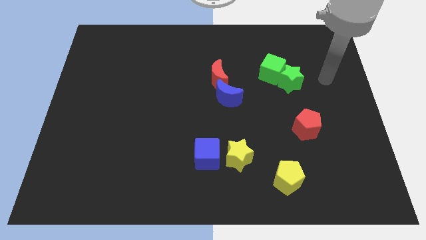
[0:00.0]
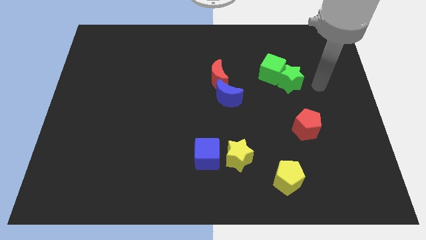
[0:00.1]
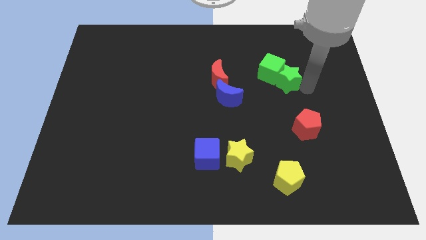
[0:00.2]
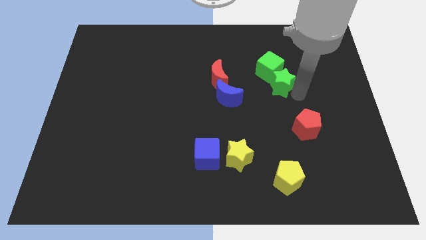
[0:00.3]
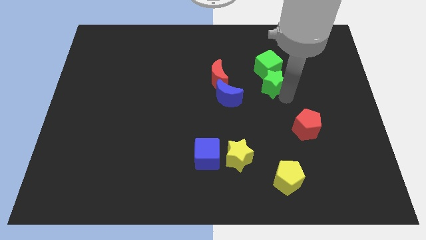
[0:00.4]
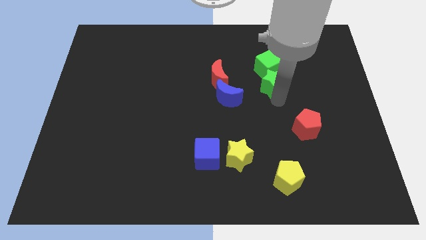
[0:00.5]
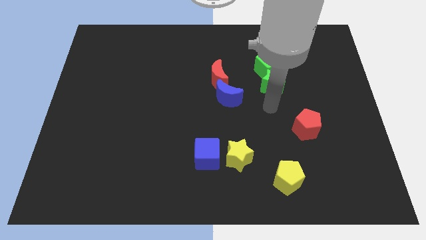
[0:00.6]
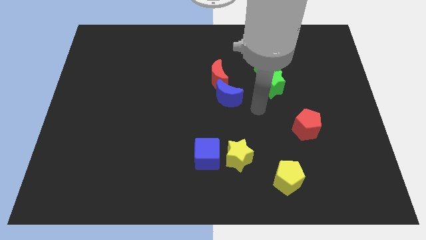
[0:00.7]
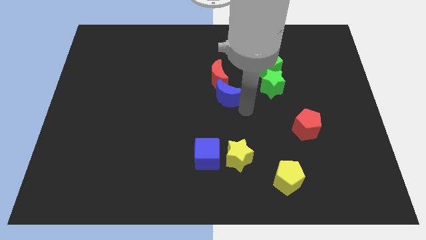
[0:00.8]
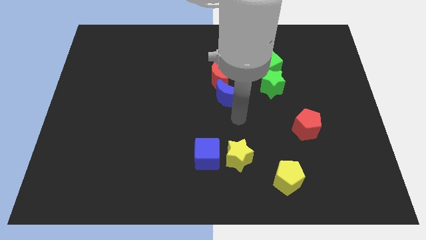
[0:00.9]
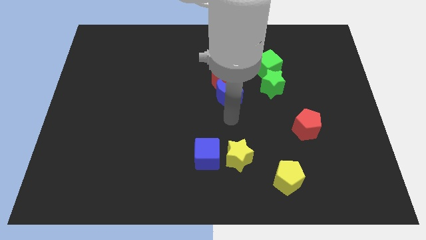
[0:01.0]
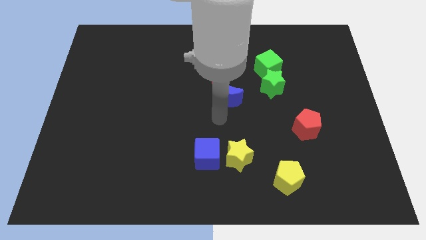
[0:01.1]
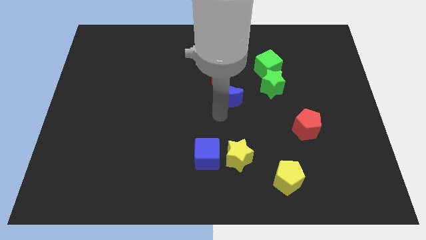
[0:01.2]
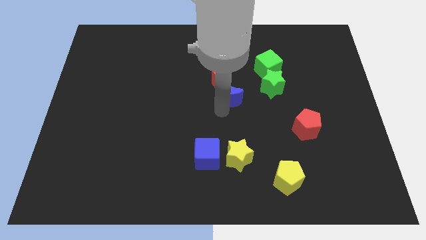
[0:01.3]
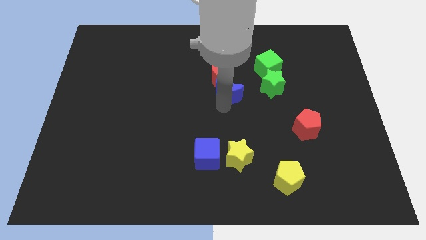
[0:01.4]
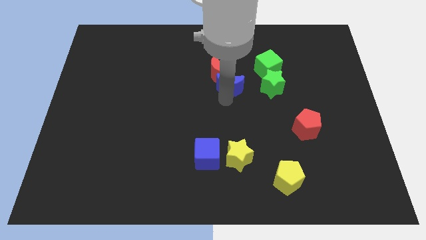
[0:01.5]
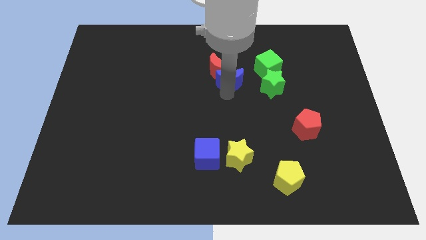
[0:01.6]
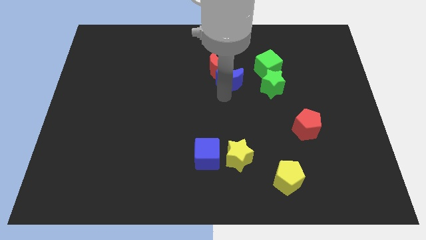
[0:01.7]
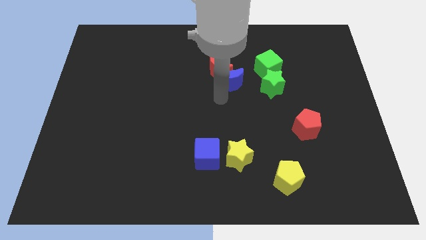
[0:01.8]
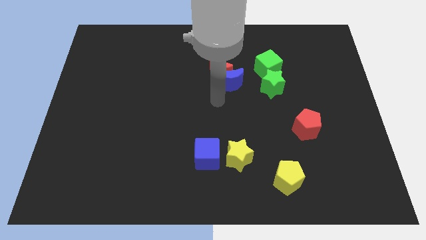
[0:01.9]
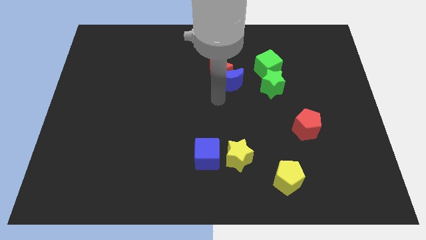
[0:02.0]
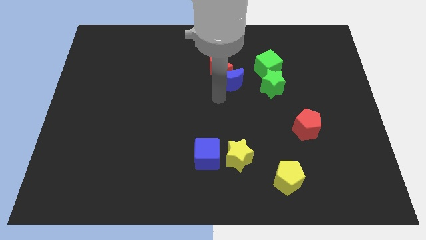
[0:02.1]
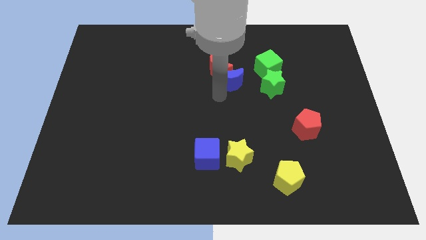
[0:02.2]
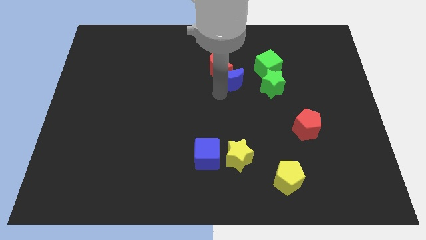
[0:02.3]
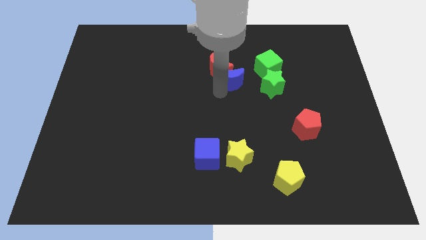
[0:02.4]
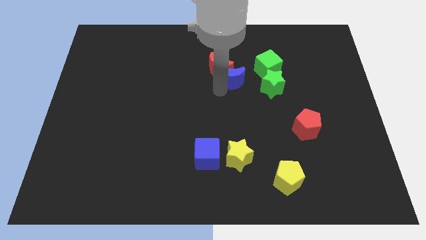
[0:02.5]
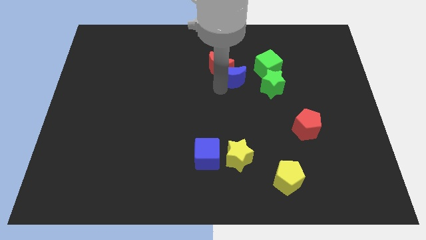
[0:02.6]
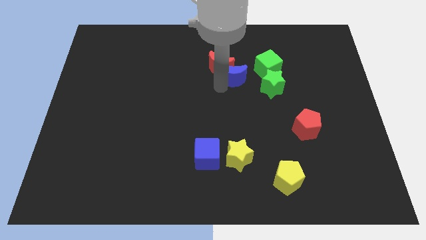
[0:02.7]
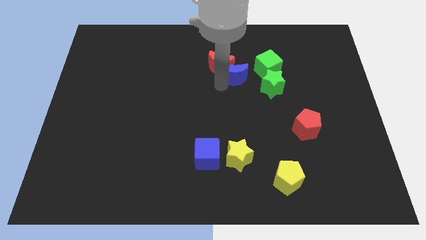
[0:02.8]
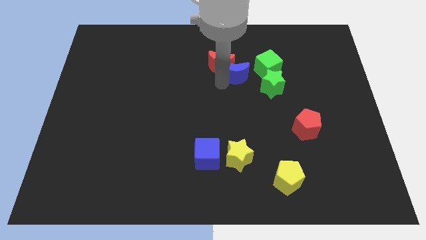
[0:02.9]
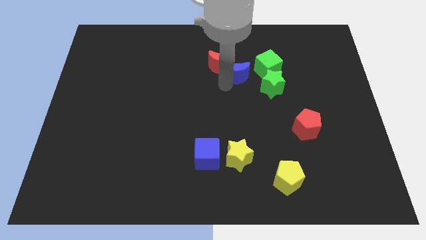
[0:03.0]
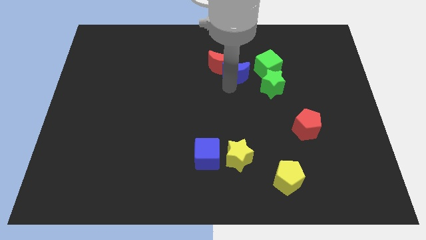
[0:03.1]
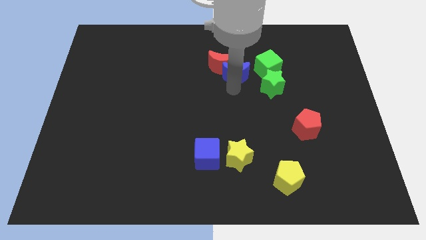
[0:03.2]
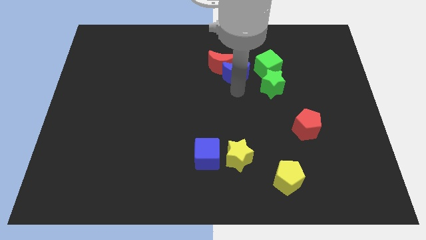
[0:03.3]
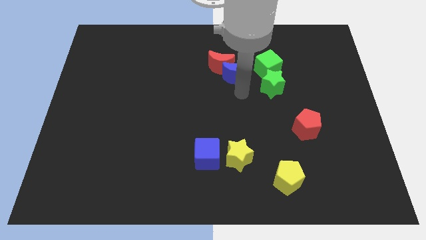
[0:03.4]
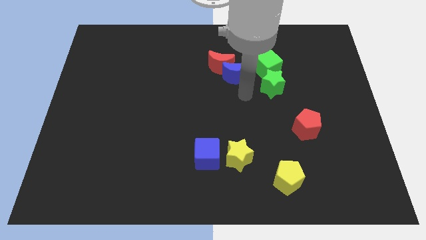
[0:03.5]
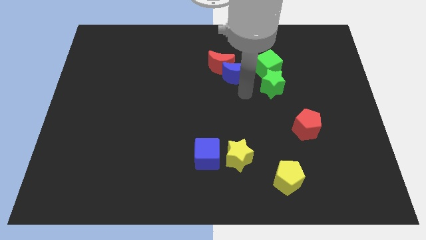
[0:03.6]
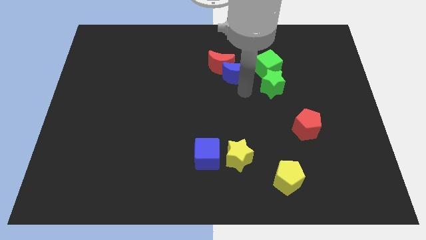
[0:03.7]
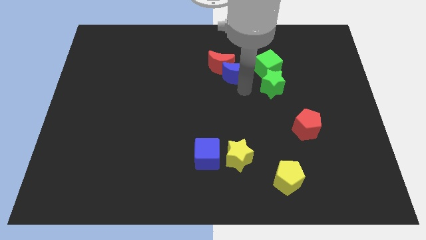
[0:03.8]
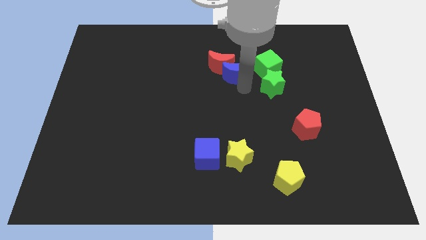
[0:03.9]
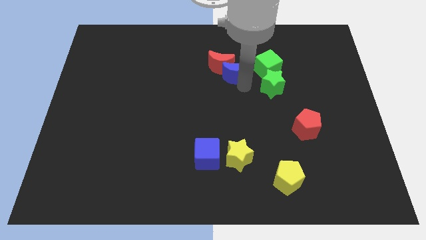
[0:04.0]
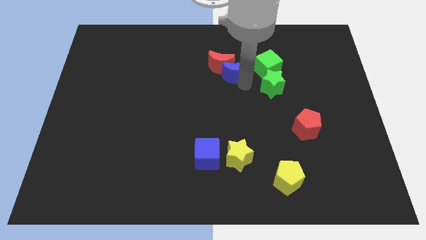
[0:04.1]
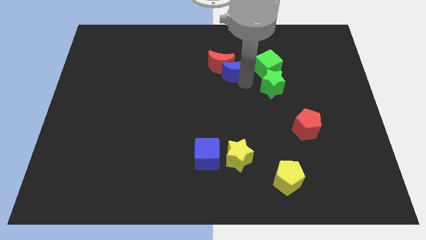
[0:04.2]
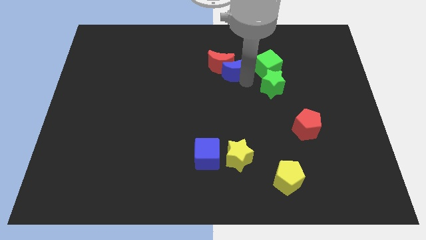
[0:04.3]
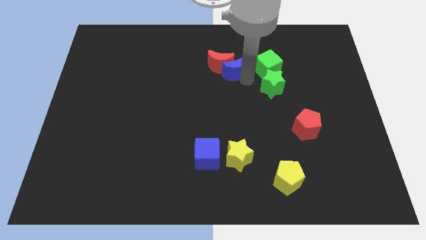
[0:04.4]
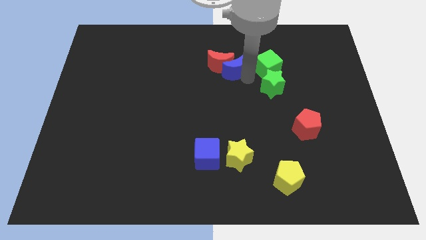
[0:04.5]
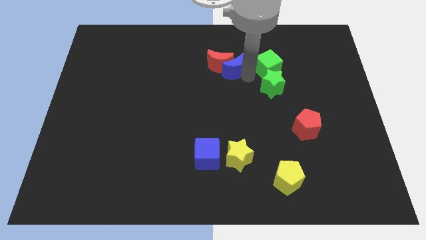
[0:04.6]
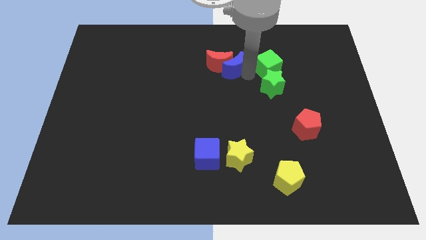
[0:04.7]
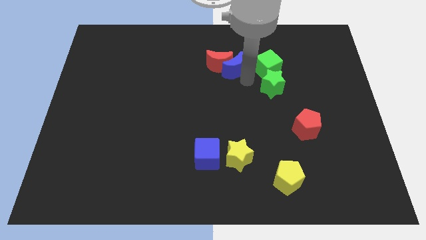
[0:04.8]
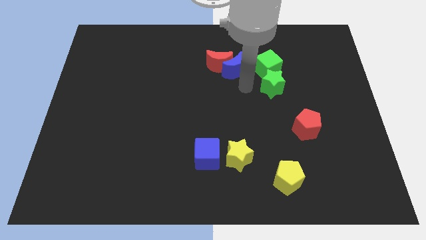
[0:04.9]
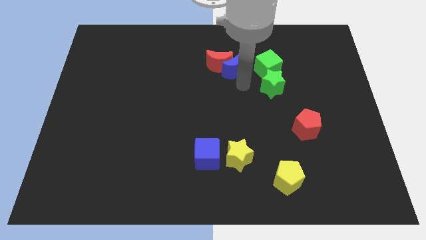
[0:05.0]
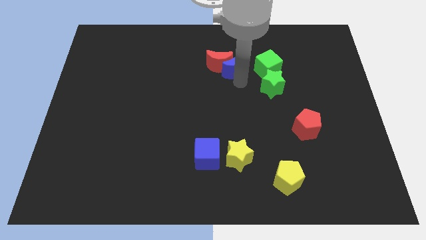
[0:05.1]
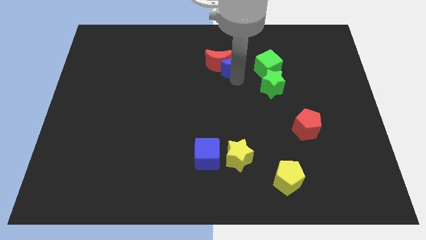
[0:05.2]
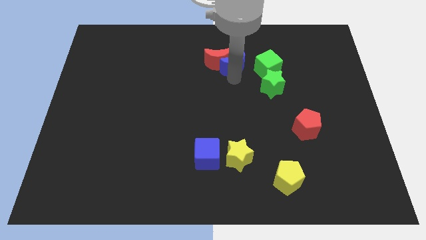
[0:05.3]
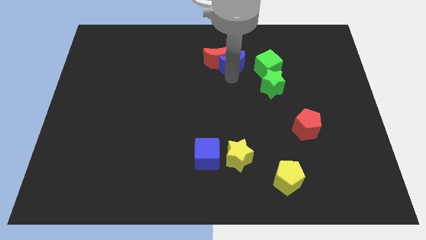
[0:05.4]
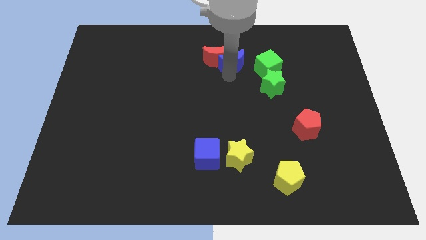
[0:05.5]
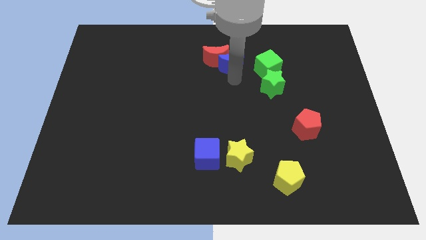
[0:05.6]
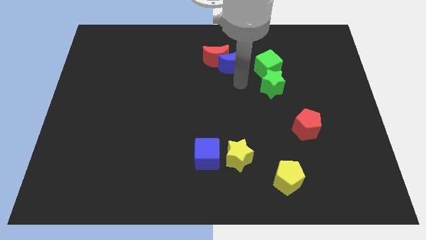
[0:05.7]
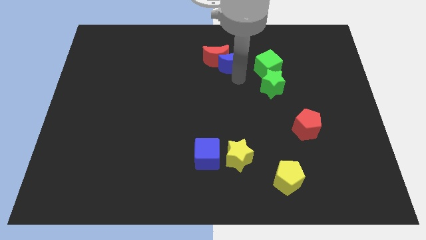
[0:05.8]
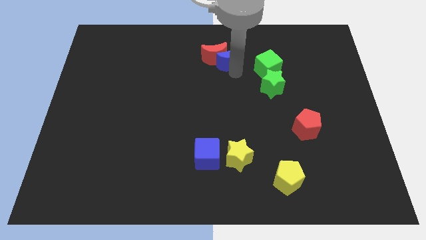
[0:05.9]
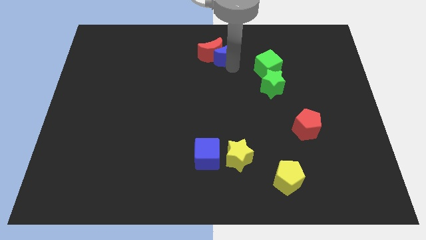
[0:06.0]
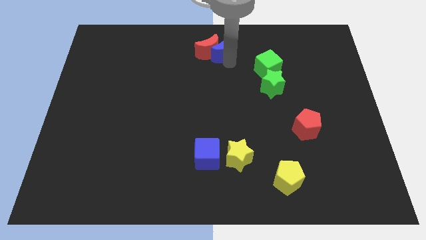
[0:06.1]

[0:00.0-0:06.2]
put the blue moon to the top
